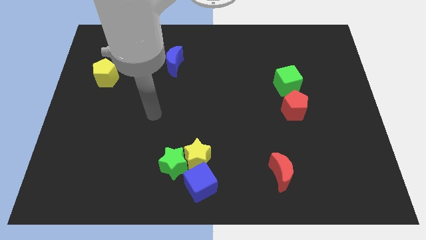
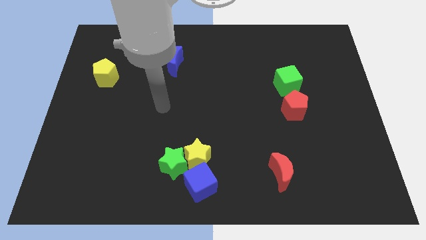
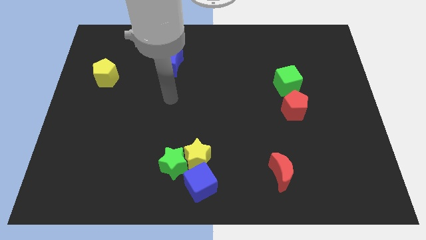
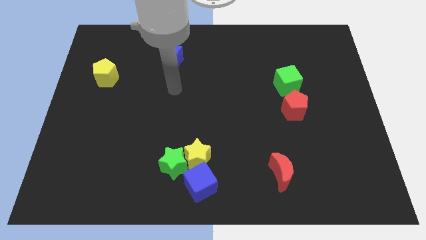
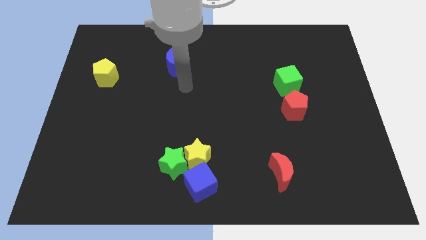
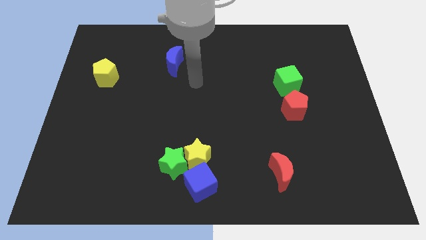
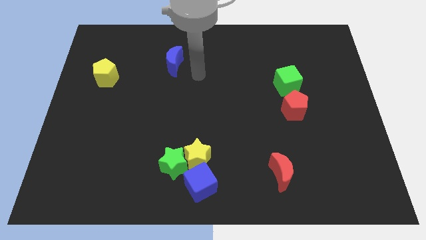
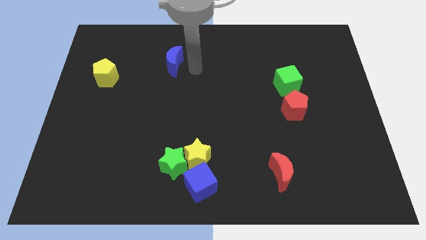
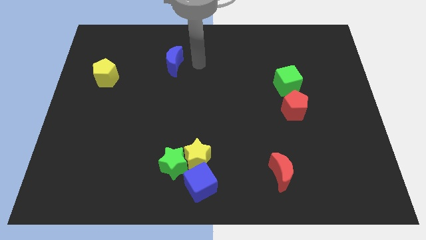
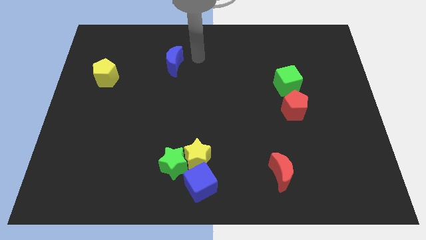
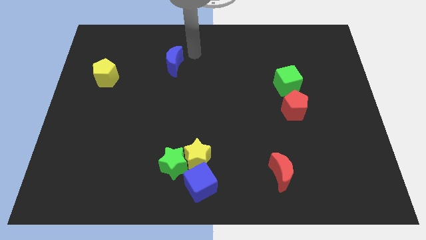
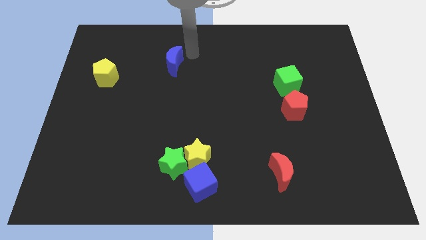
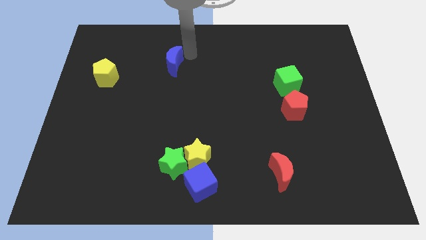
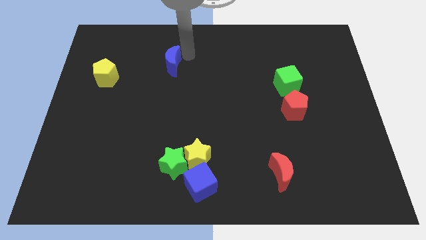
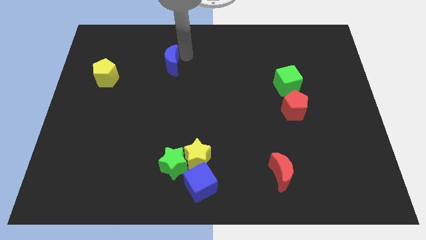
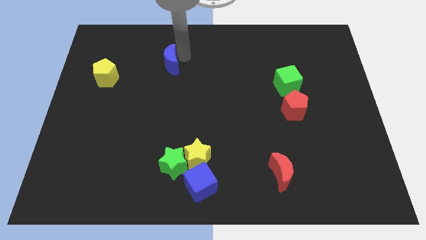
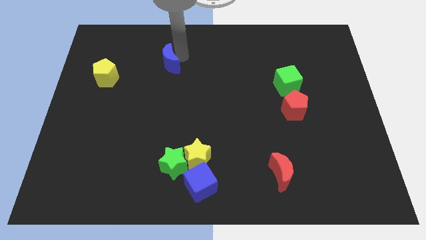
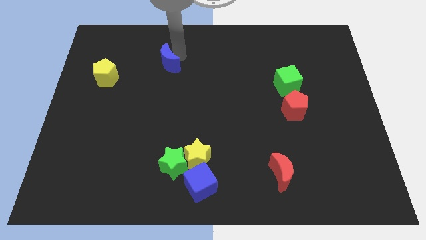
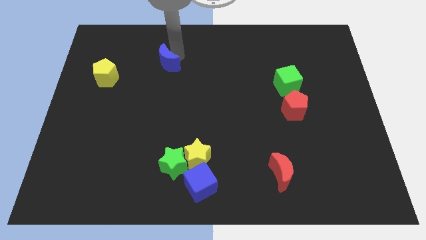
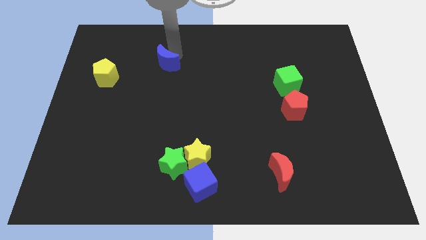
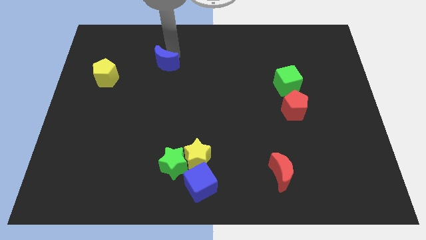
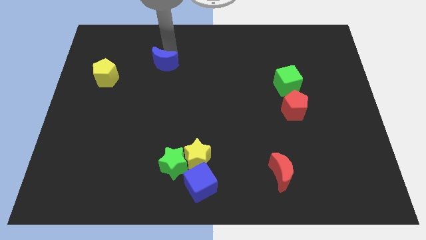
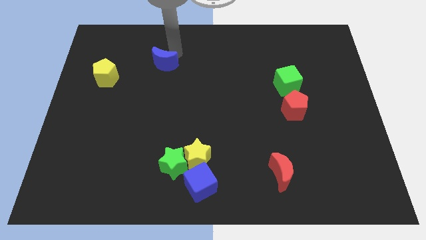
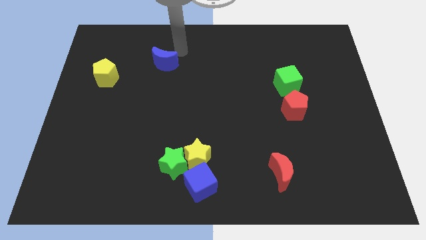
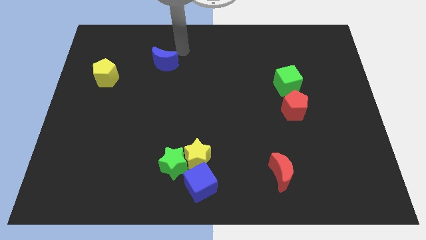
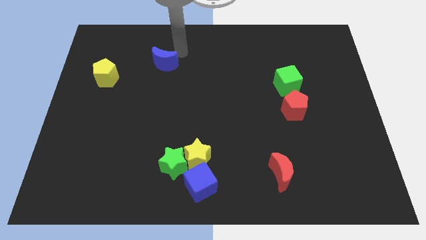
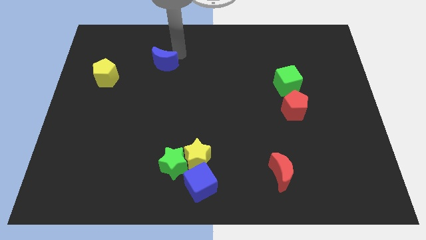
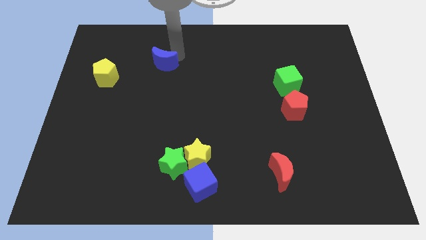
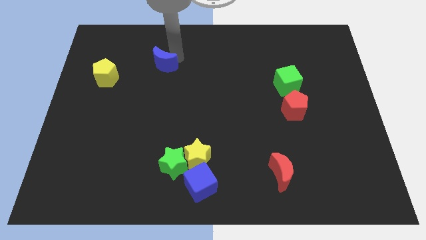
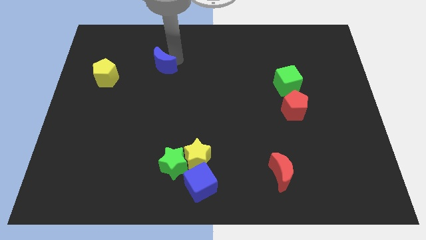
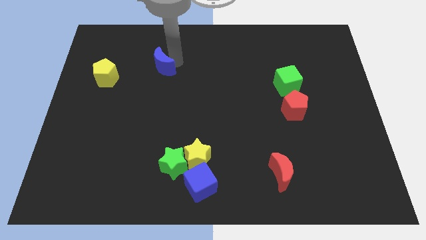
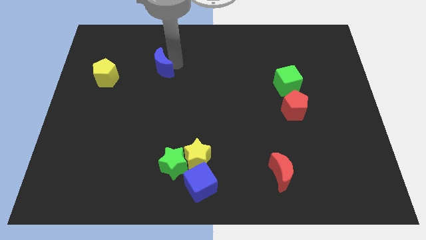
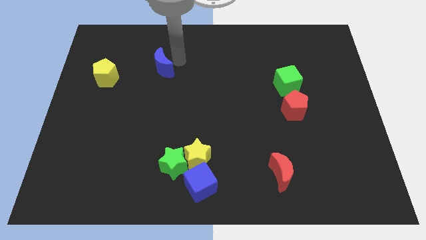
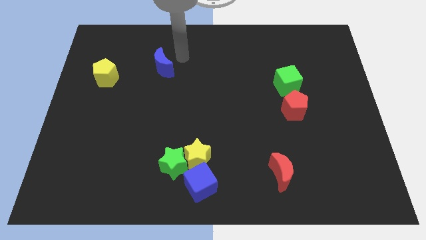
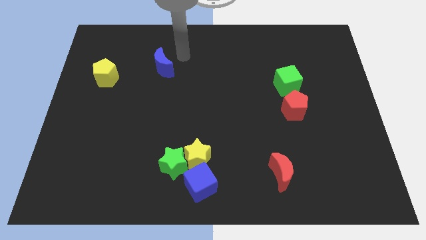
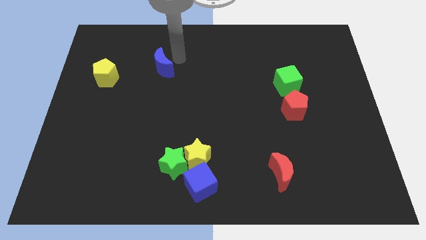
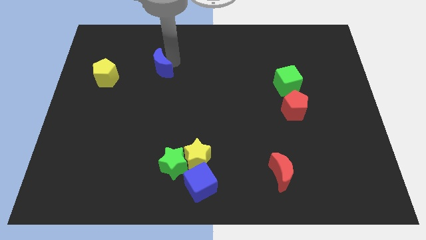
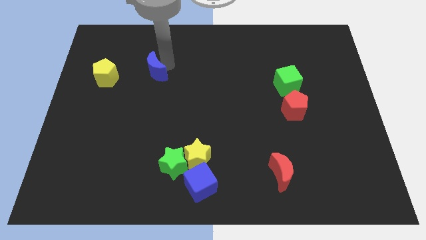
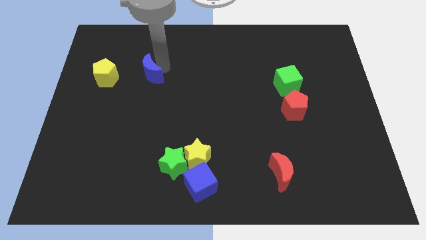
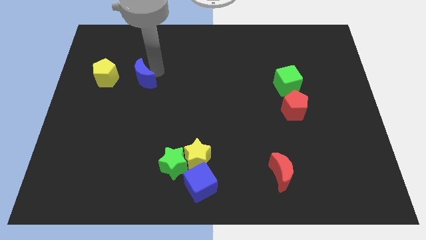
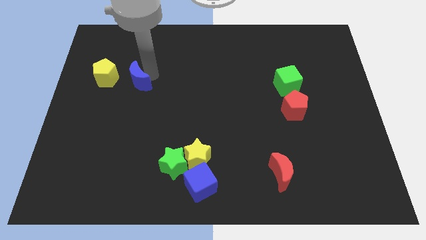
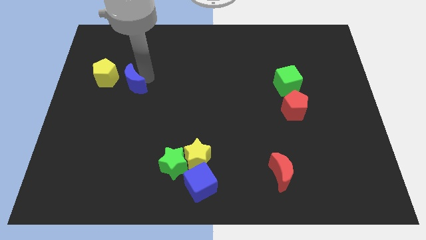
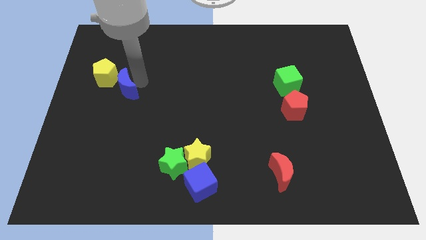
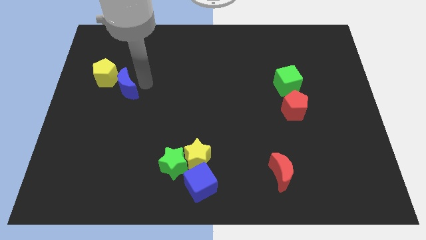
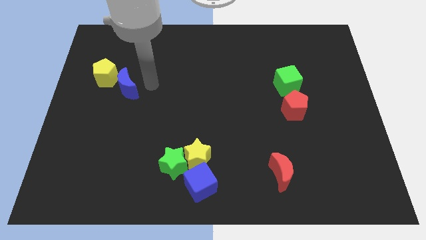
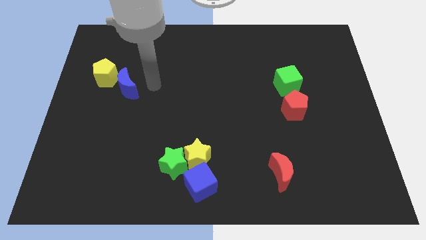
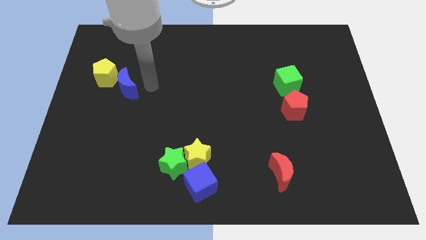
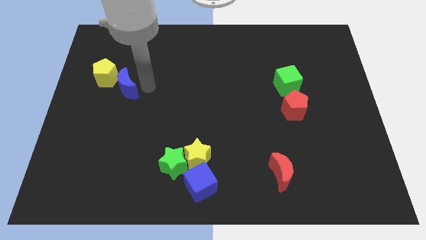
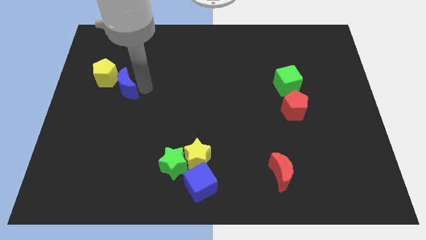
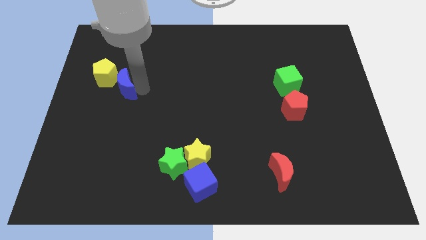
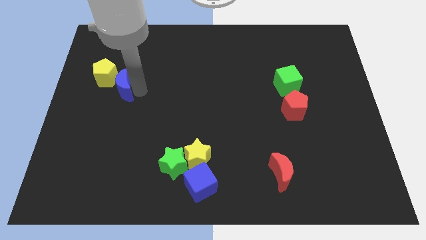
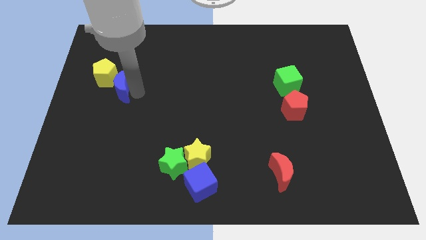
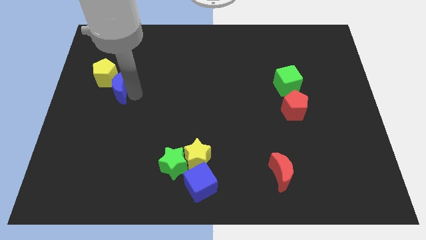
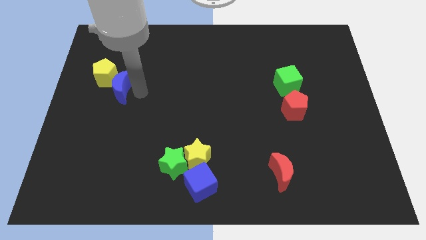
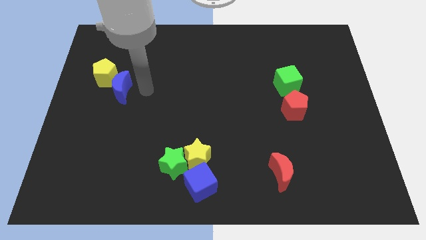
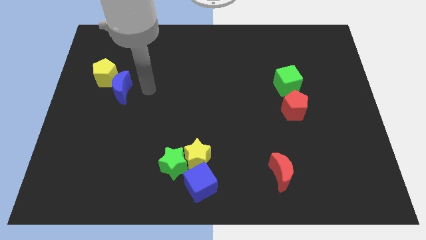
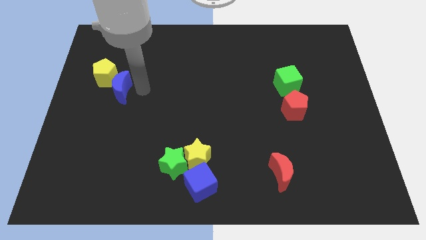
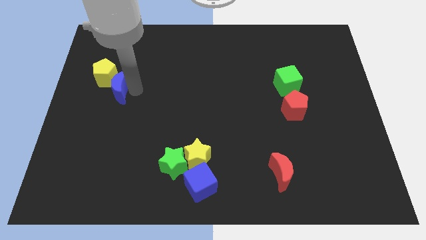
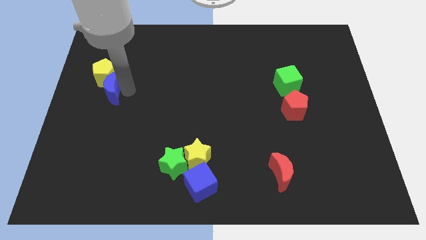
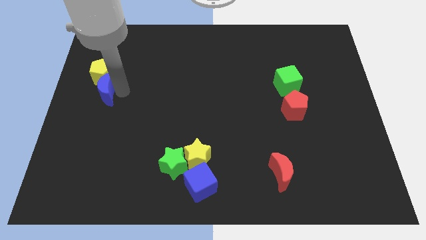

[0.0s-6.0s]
move the blue moon to the center left
